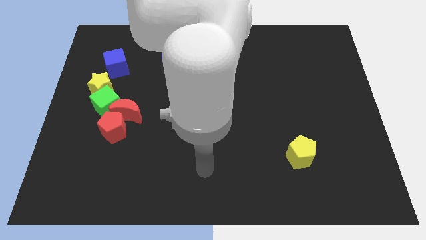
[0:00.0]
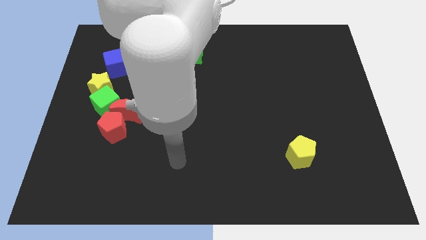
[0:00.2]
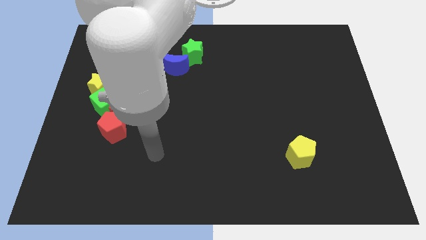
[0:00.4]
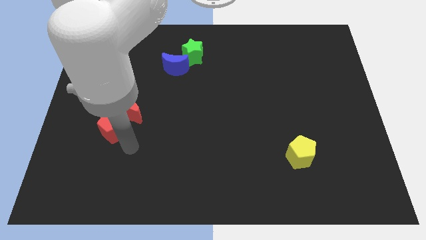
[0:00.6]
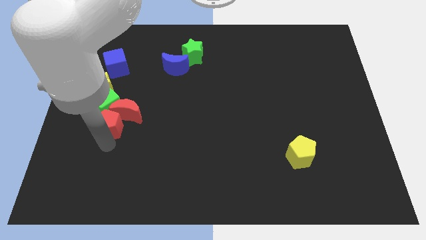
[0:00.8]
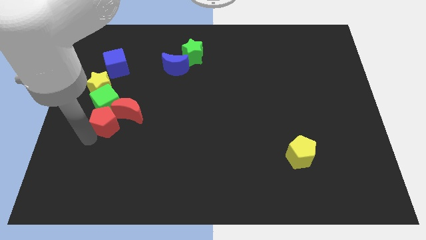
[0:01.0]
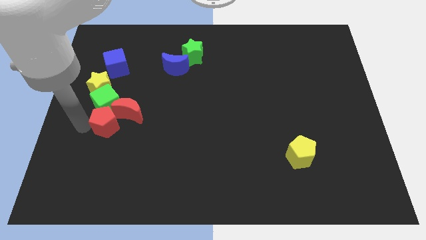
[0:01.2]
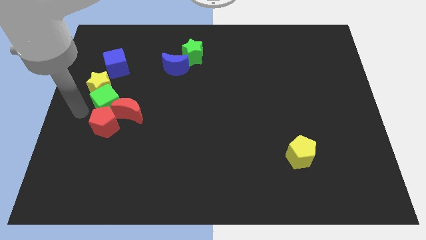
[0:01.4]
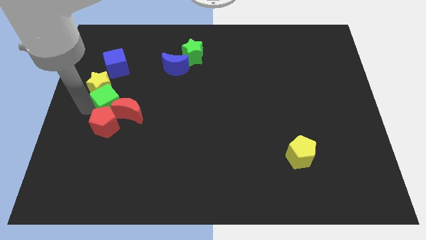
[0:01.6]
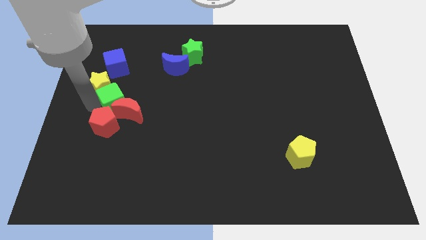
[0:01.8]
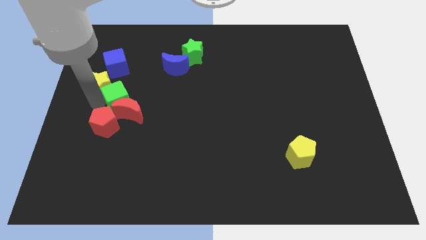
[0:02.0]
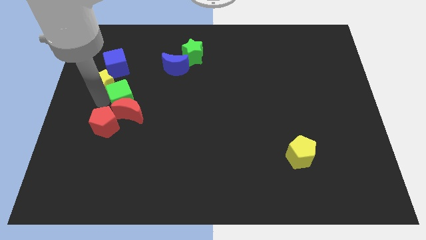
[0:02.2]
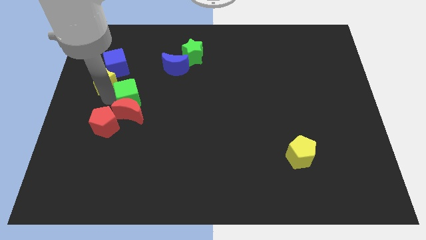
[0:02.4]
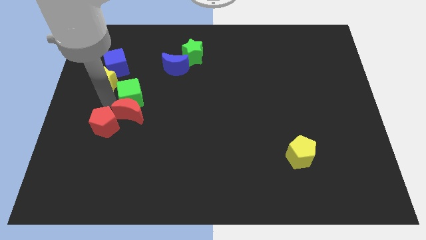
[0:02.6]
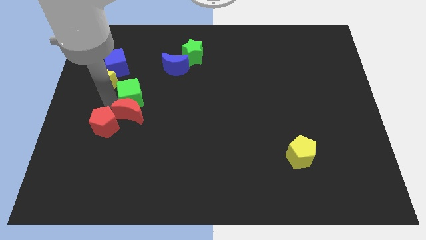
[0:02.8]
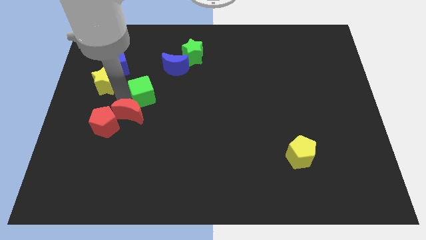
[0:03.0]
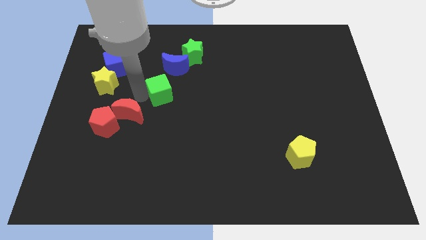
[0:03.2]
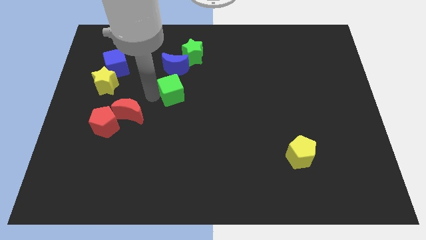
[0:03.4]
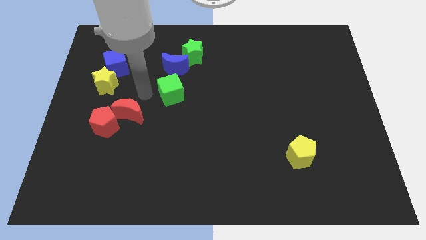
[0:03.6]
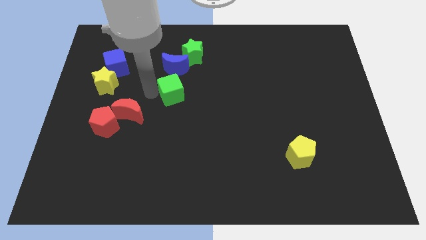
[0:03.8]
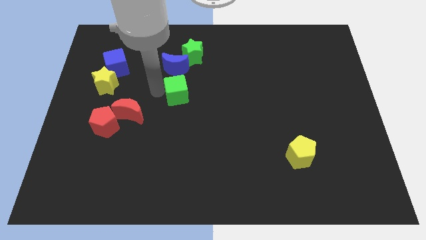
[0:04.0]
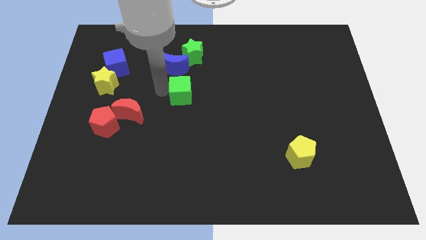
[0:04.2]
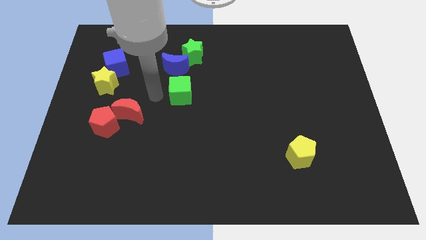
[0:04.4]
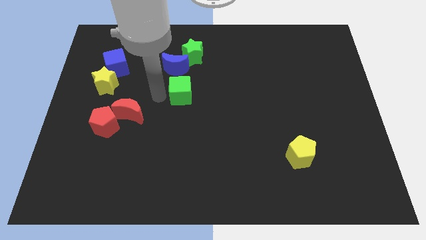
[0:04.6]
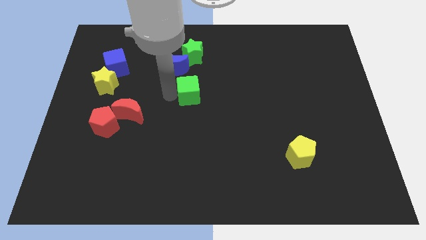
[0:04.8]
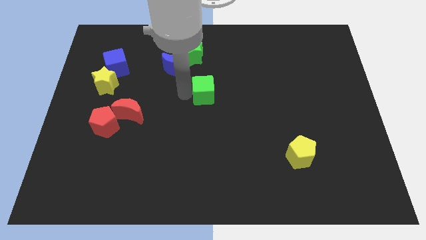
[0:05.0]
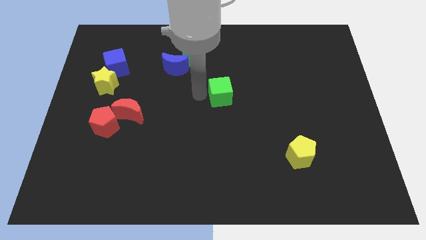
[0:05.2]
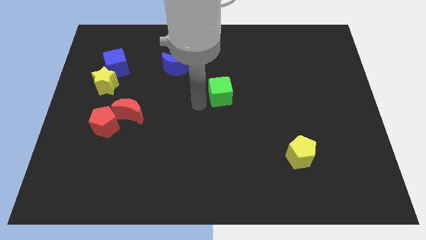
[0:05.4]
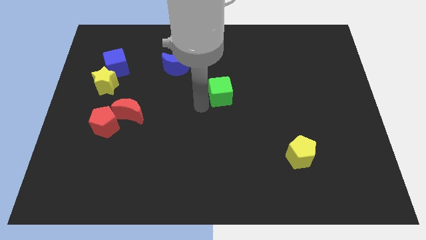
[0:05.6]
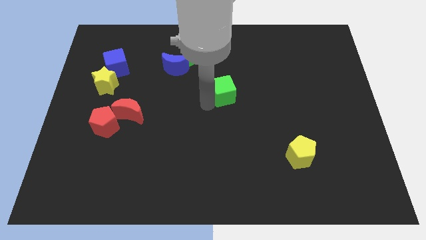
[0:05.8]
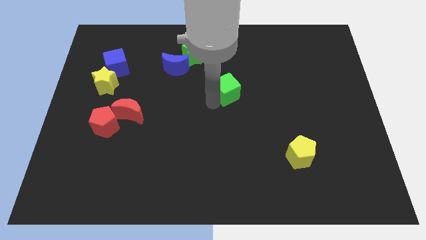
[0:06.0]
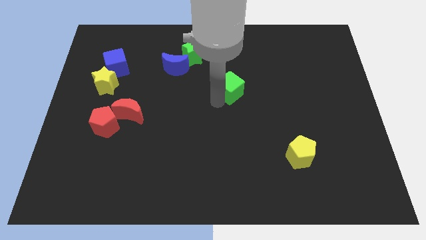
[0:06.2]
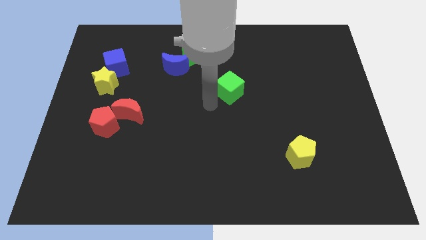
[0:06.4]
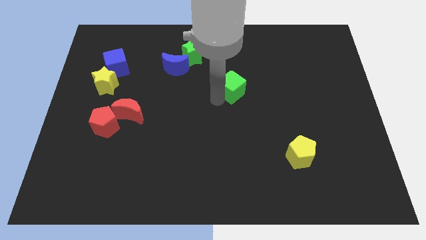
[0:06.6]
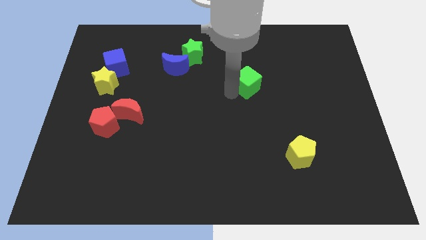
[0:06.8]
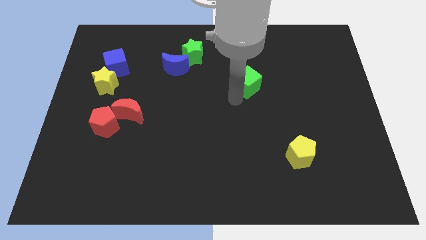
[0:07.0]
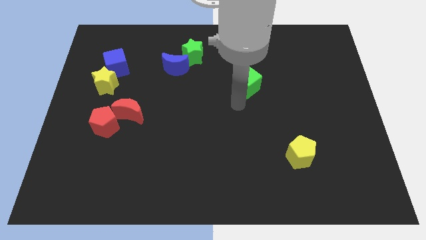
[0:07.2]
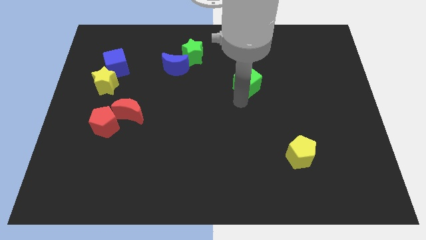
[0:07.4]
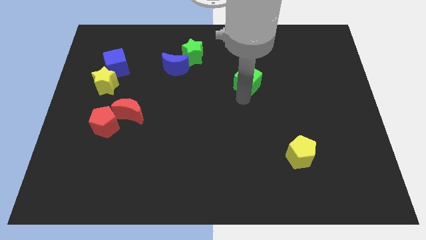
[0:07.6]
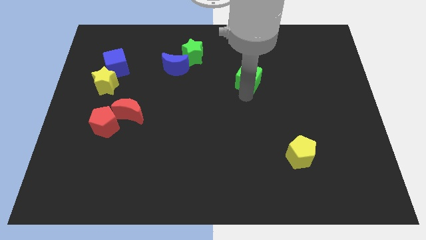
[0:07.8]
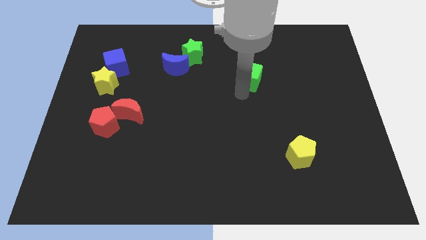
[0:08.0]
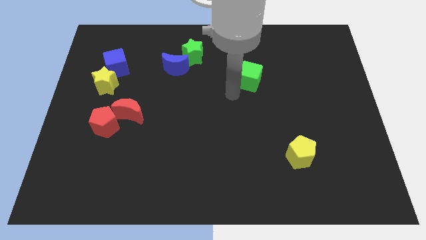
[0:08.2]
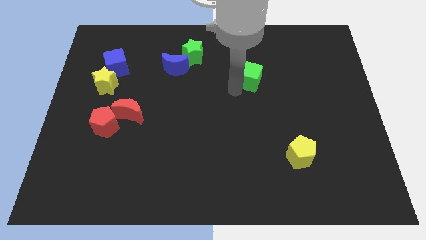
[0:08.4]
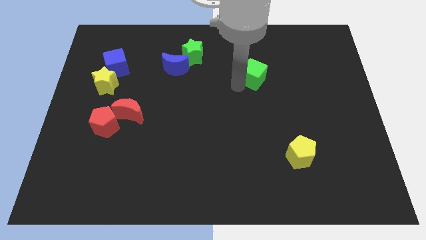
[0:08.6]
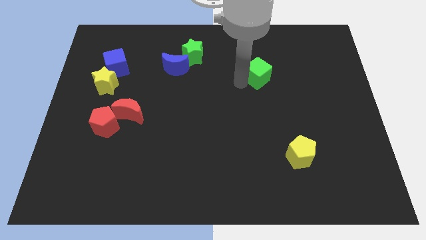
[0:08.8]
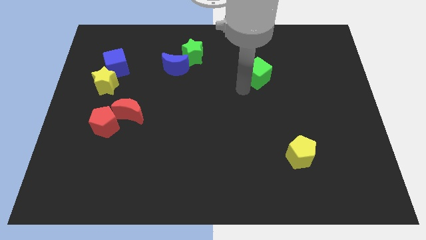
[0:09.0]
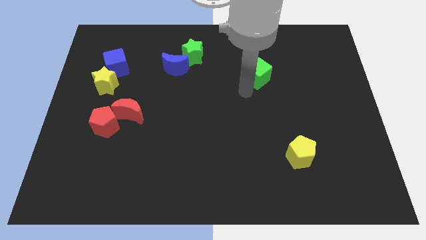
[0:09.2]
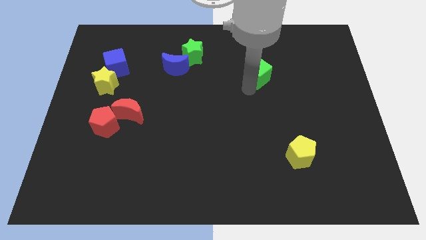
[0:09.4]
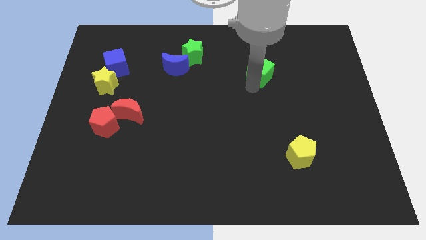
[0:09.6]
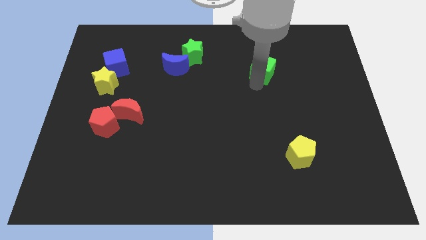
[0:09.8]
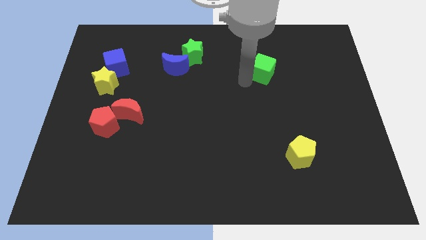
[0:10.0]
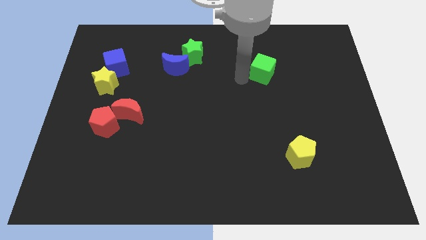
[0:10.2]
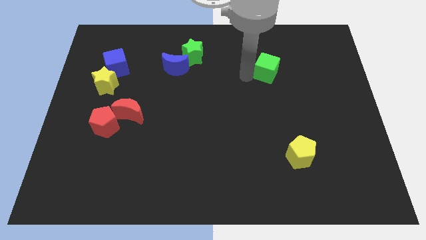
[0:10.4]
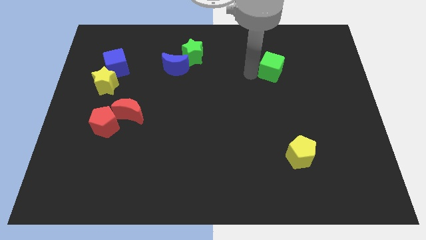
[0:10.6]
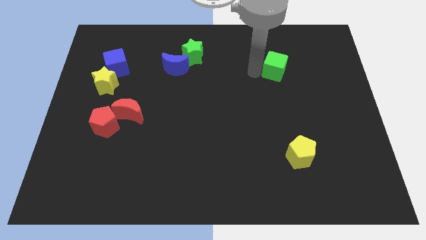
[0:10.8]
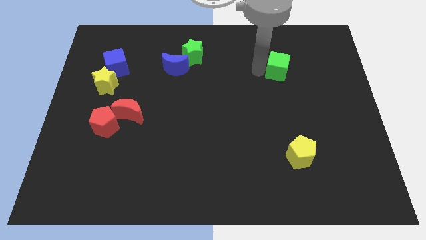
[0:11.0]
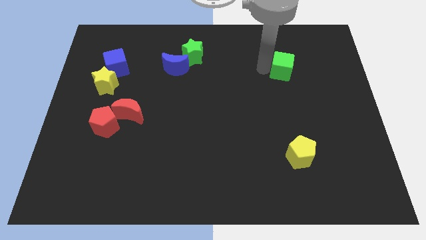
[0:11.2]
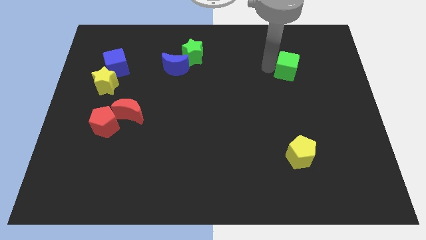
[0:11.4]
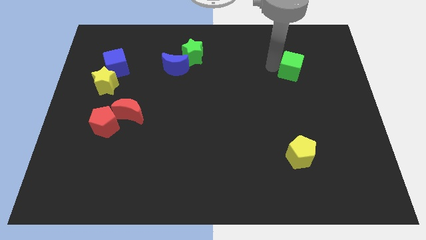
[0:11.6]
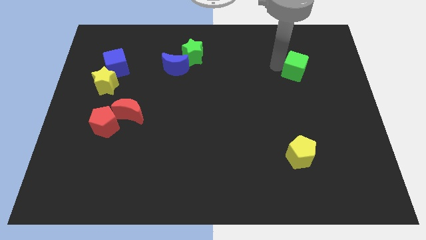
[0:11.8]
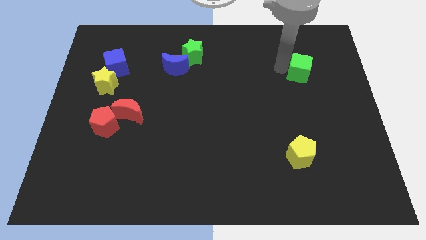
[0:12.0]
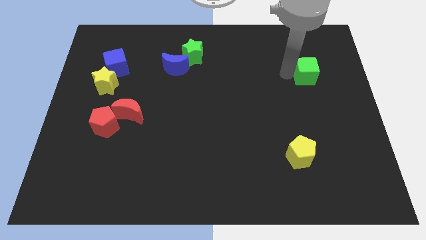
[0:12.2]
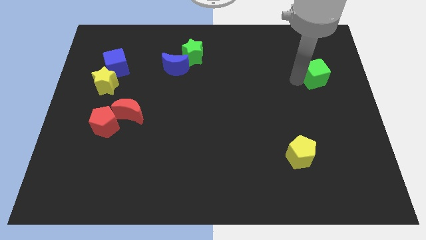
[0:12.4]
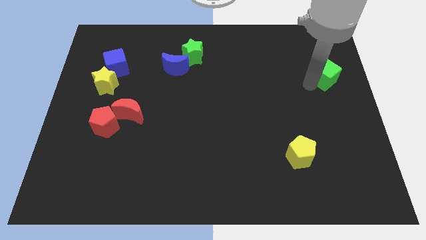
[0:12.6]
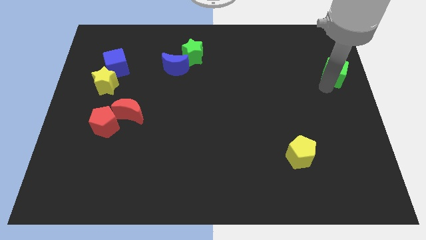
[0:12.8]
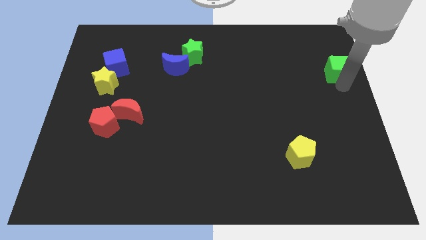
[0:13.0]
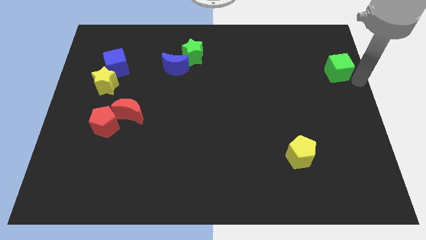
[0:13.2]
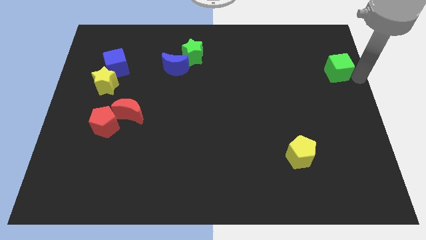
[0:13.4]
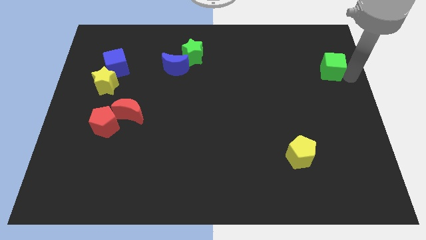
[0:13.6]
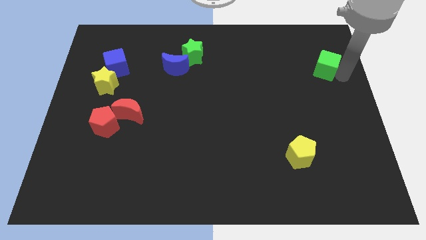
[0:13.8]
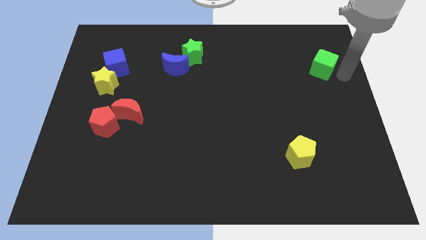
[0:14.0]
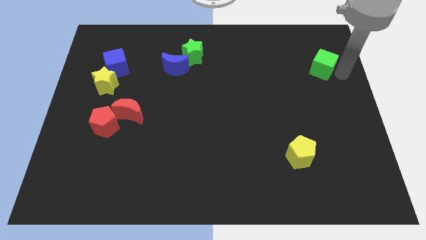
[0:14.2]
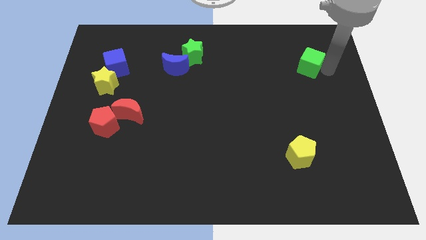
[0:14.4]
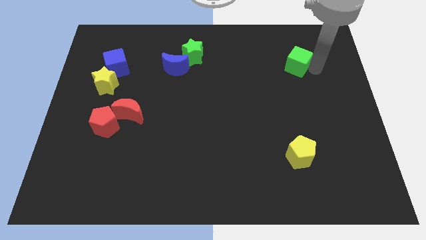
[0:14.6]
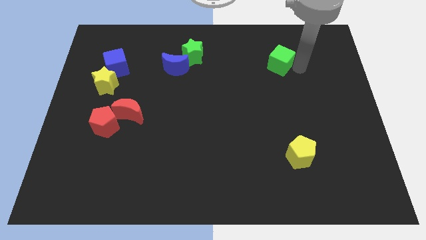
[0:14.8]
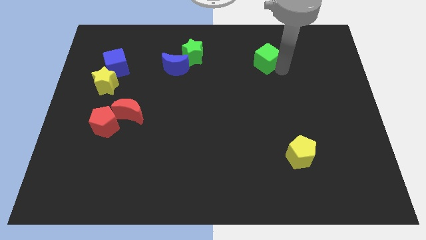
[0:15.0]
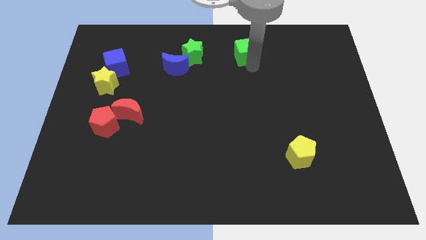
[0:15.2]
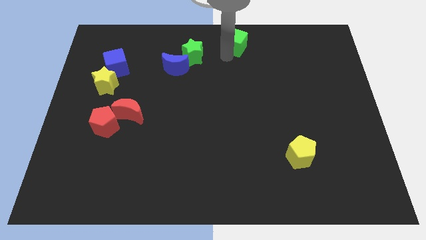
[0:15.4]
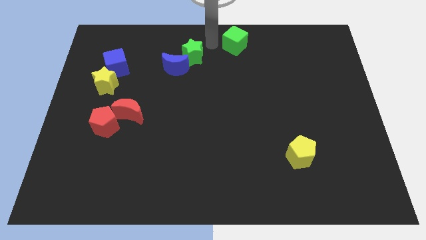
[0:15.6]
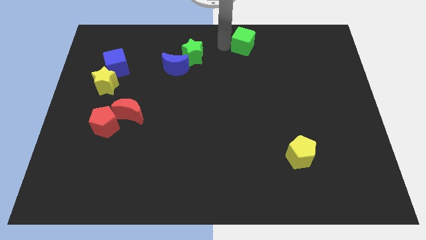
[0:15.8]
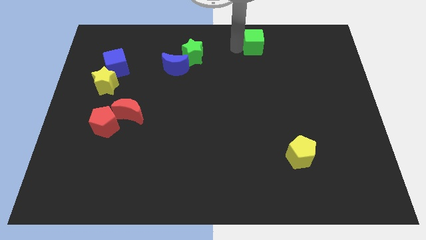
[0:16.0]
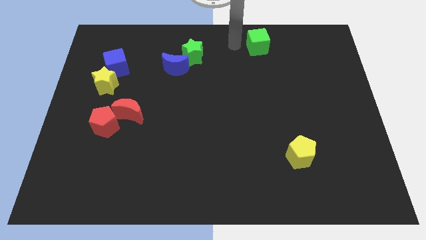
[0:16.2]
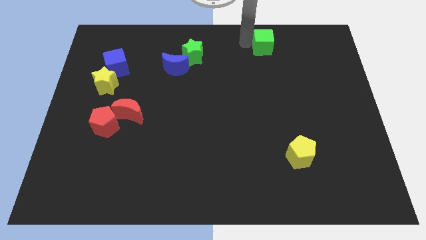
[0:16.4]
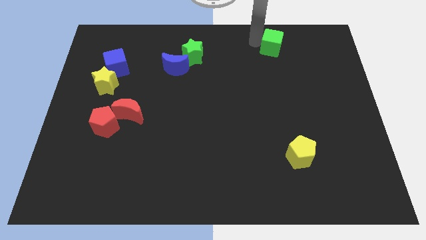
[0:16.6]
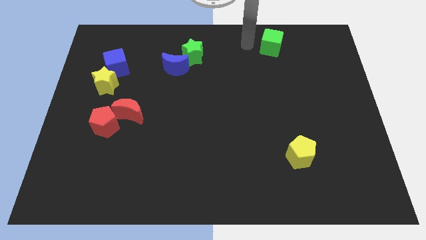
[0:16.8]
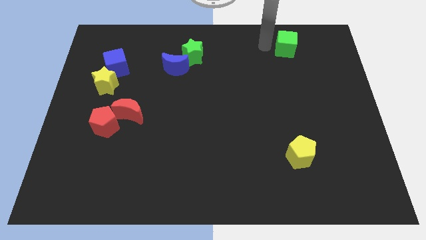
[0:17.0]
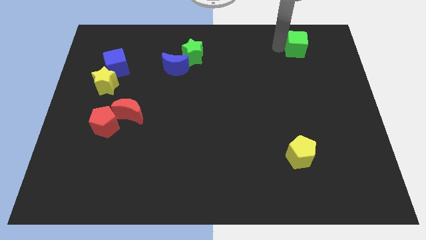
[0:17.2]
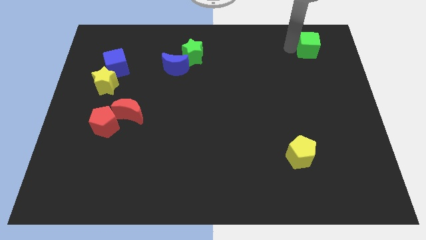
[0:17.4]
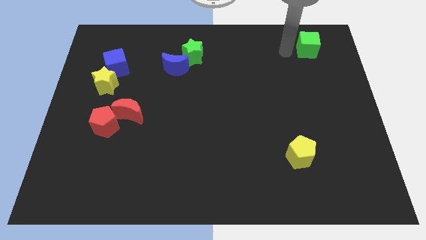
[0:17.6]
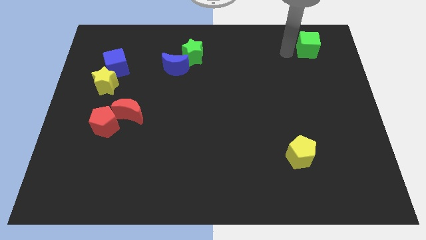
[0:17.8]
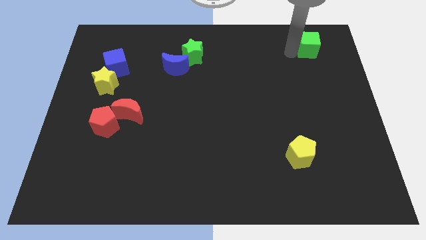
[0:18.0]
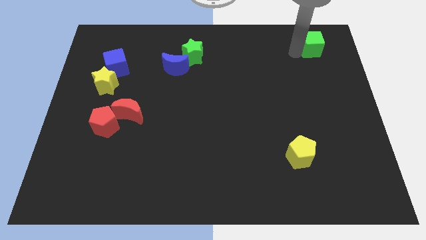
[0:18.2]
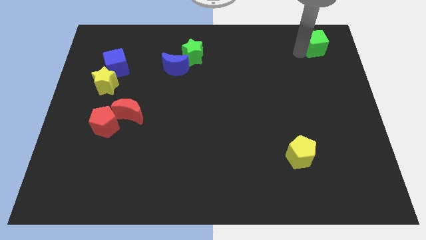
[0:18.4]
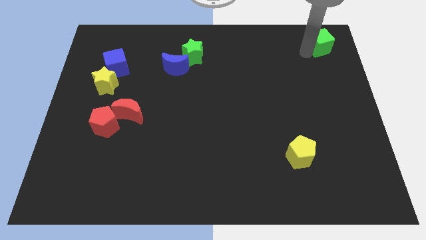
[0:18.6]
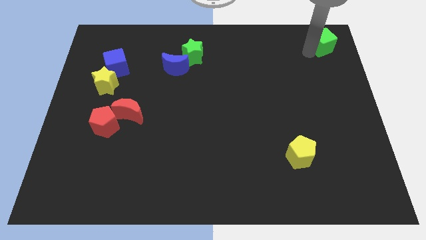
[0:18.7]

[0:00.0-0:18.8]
push the green cube to the top right corner
